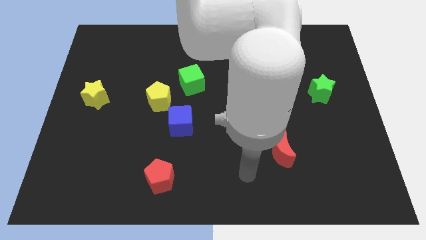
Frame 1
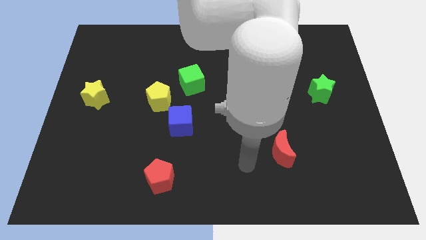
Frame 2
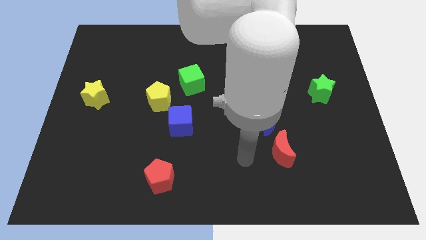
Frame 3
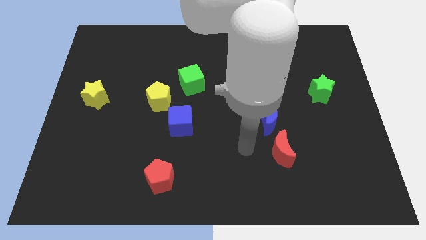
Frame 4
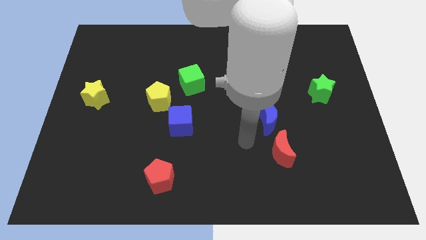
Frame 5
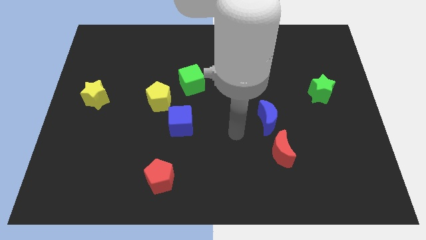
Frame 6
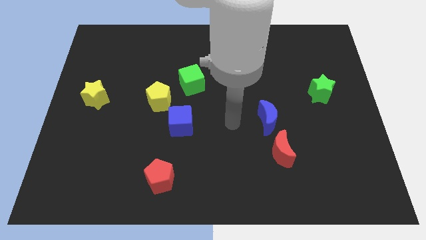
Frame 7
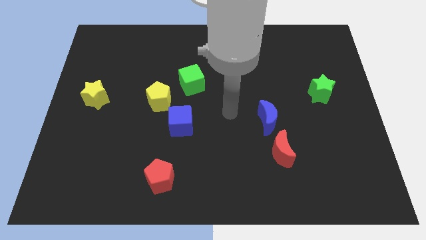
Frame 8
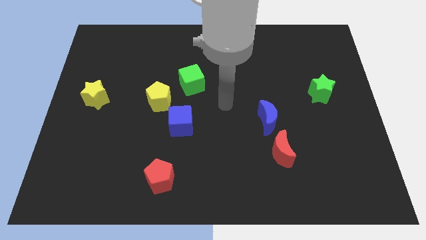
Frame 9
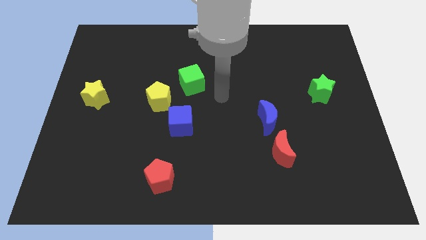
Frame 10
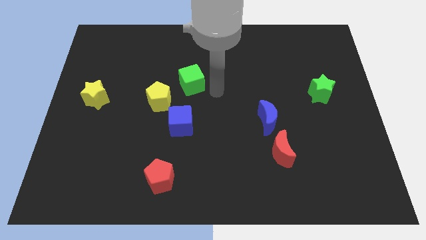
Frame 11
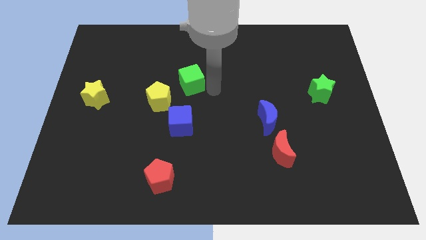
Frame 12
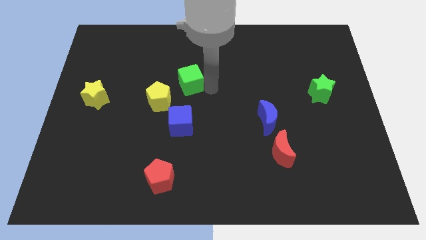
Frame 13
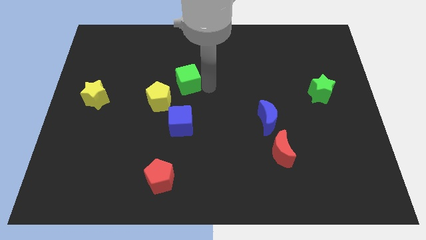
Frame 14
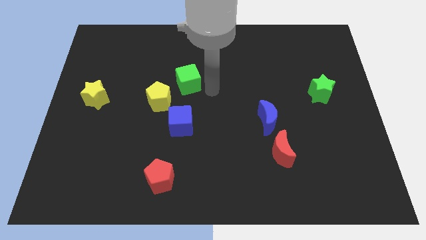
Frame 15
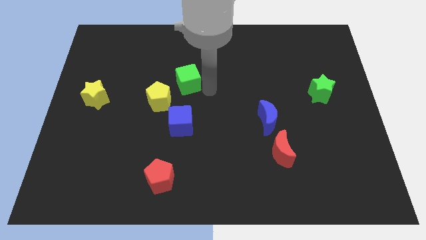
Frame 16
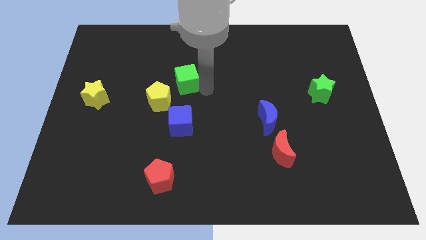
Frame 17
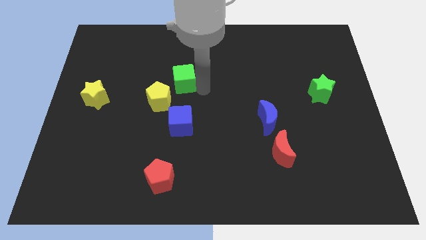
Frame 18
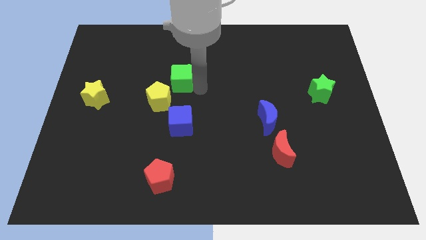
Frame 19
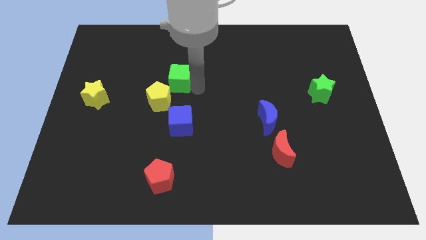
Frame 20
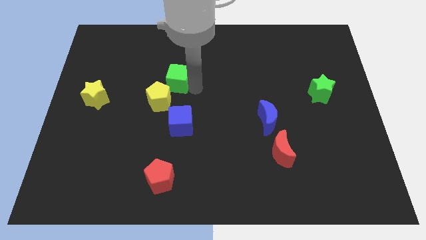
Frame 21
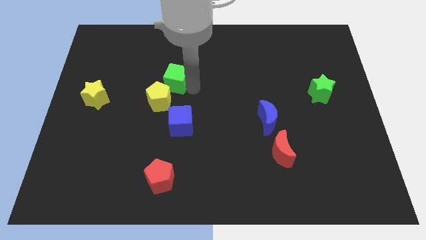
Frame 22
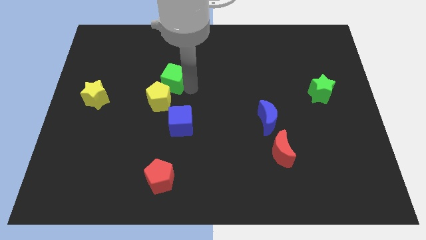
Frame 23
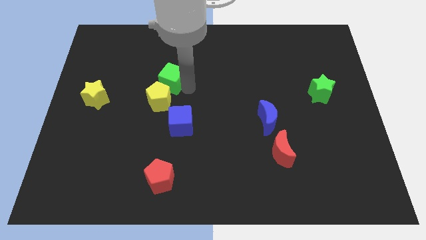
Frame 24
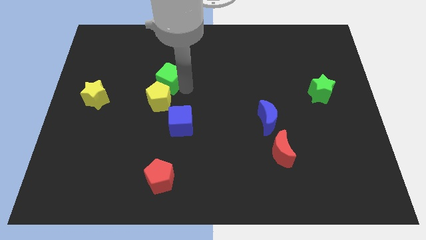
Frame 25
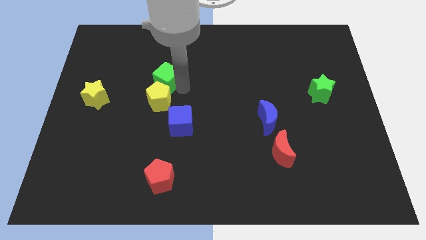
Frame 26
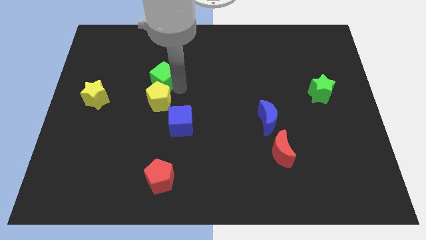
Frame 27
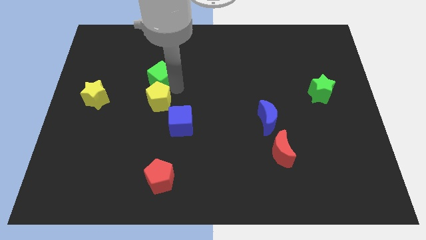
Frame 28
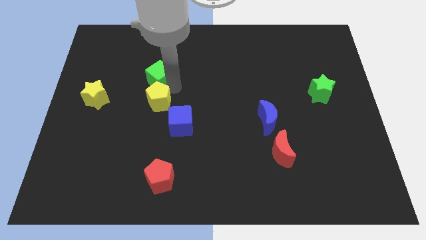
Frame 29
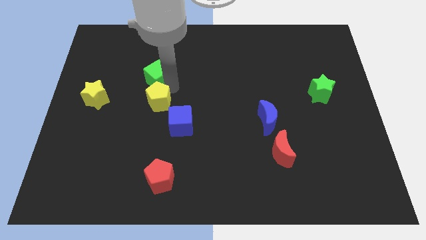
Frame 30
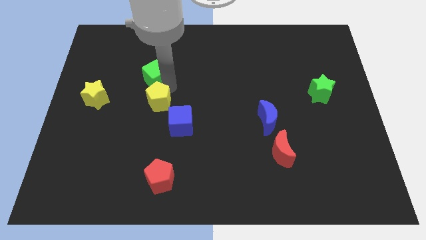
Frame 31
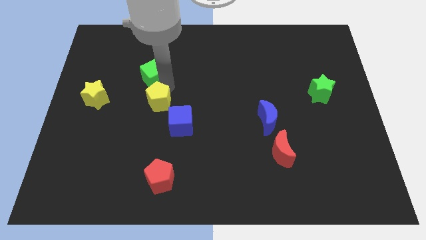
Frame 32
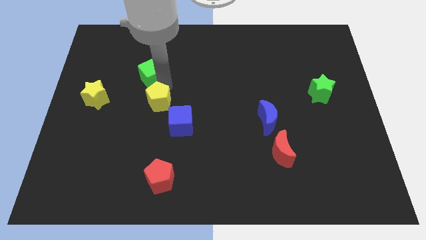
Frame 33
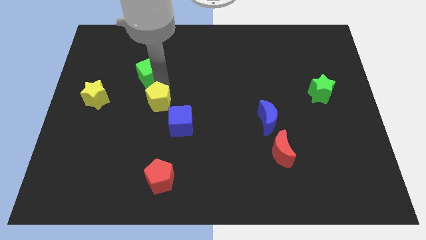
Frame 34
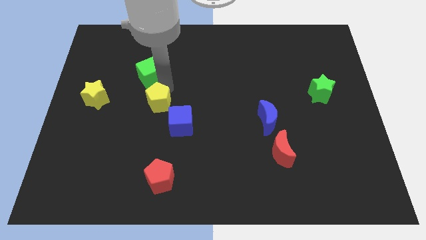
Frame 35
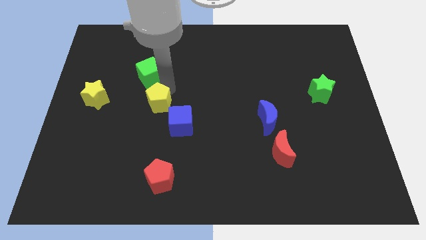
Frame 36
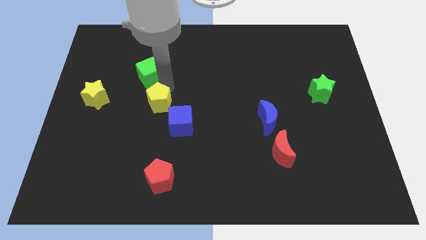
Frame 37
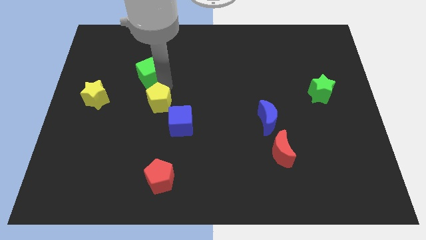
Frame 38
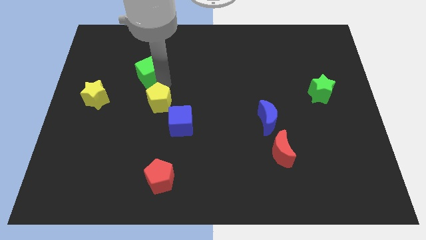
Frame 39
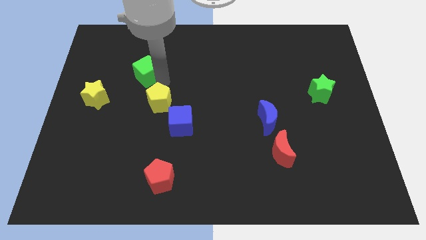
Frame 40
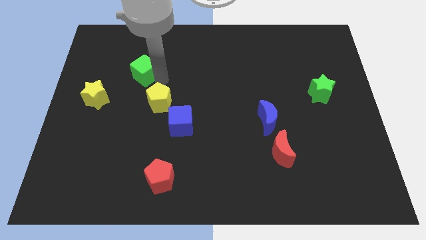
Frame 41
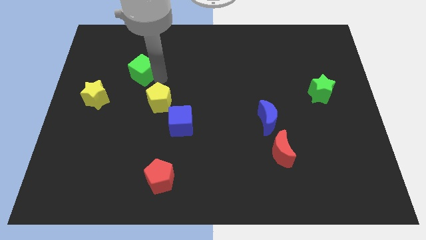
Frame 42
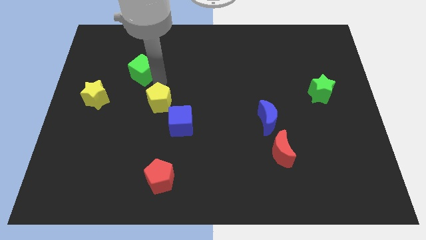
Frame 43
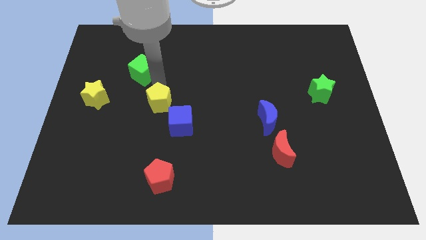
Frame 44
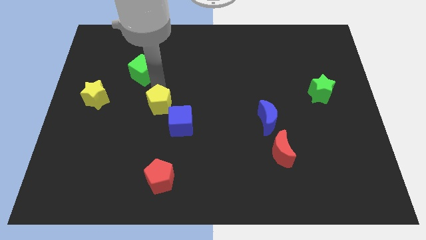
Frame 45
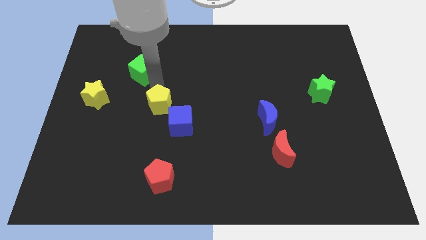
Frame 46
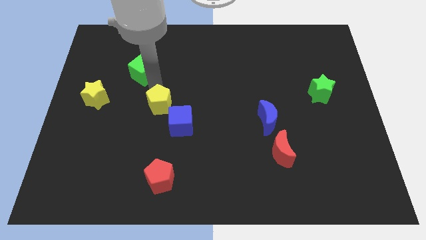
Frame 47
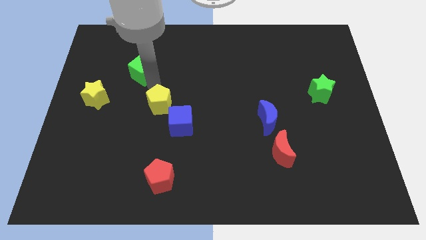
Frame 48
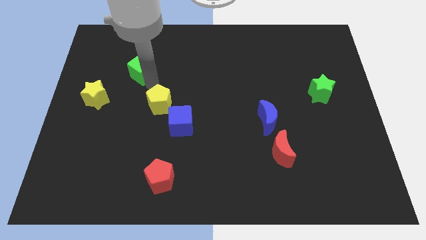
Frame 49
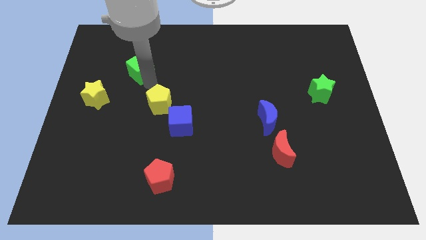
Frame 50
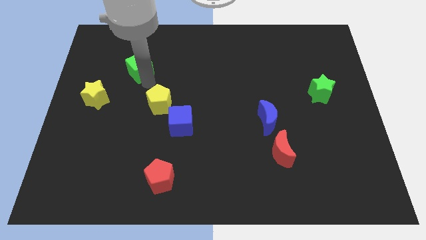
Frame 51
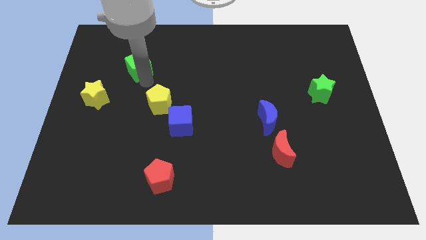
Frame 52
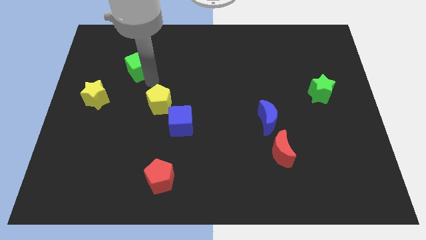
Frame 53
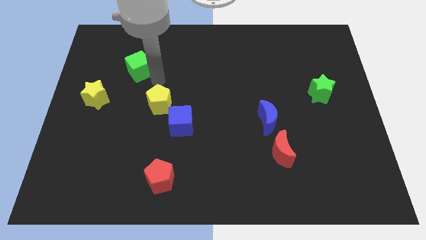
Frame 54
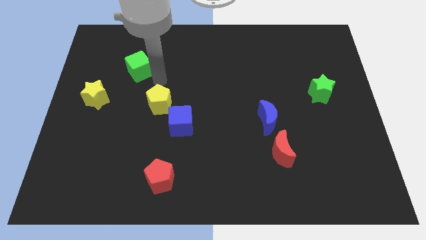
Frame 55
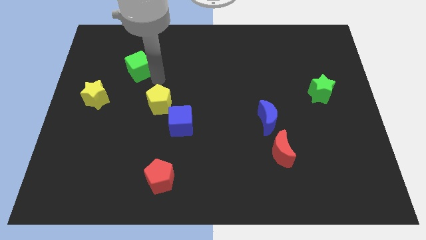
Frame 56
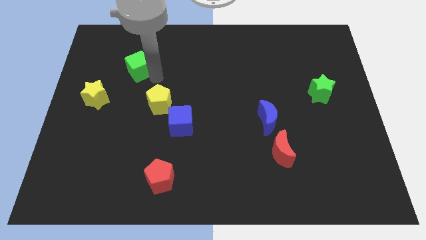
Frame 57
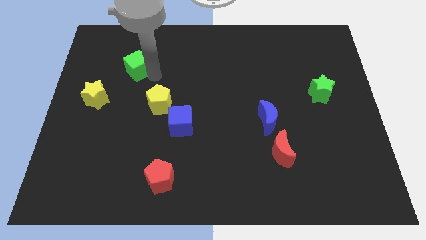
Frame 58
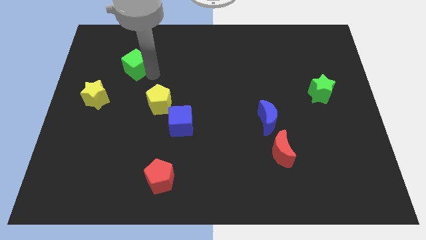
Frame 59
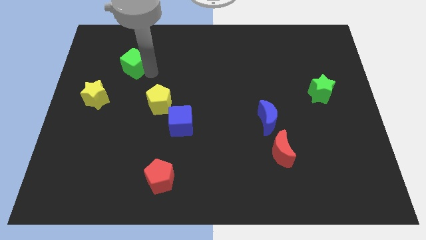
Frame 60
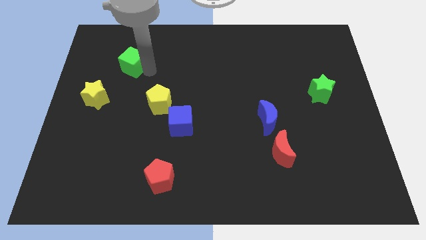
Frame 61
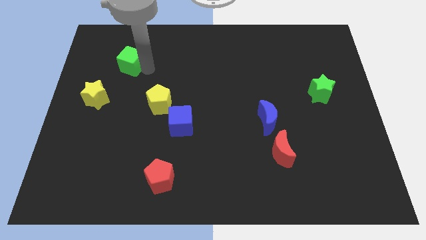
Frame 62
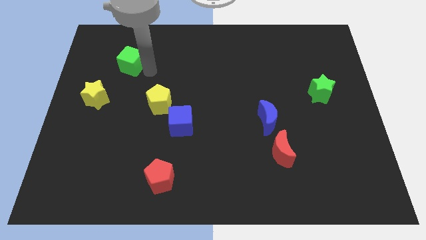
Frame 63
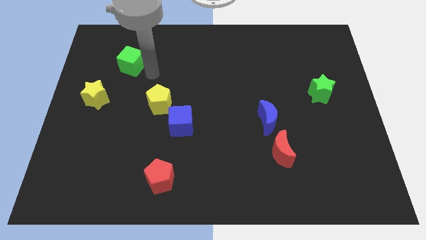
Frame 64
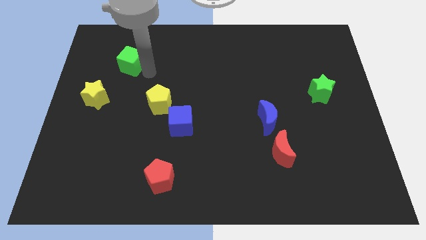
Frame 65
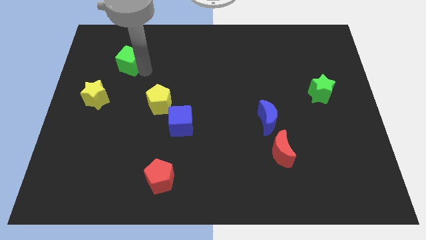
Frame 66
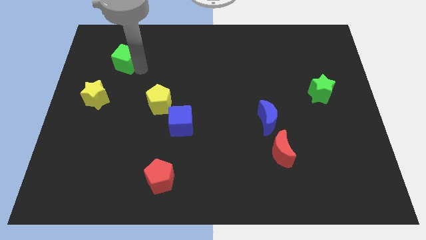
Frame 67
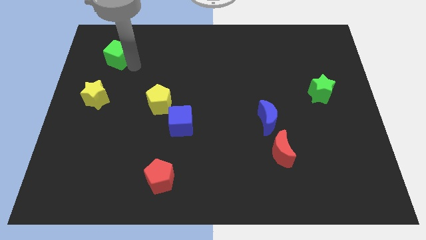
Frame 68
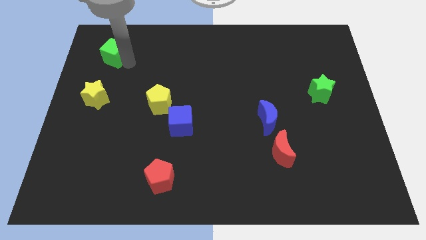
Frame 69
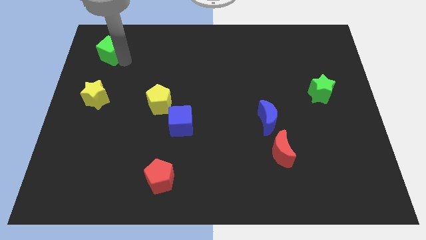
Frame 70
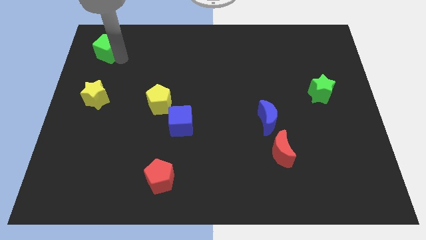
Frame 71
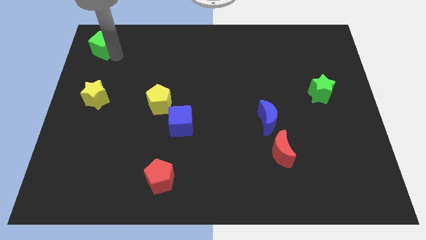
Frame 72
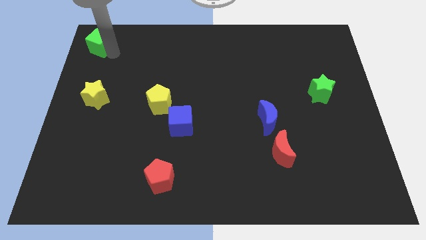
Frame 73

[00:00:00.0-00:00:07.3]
move the green cube to the top left of the board
